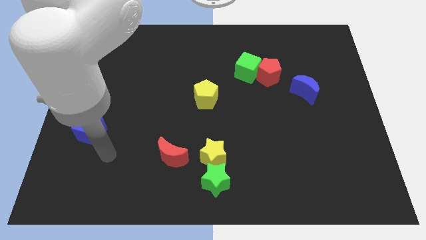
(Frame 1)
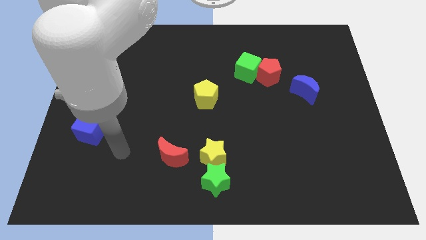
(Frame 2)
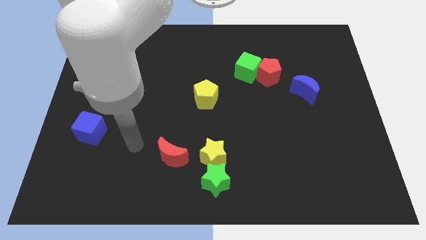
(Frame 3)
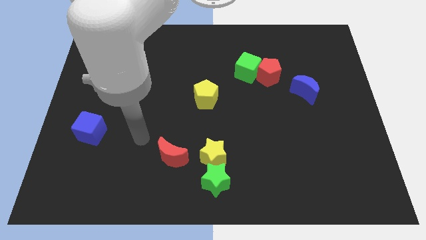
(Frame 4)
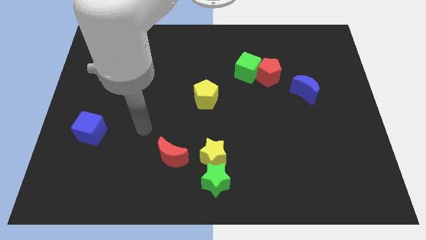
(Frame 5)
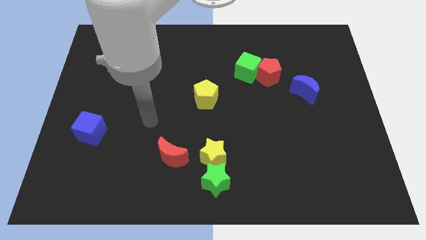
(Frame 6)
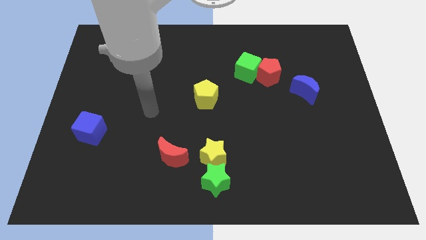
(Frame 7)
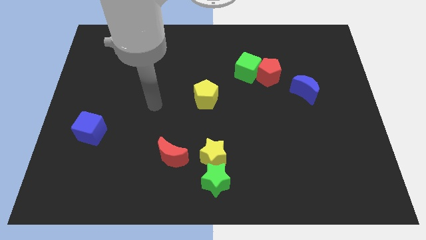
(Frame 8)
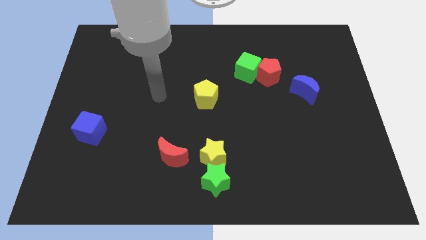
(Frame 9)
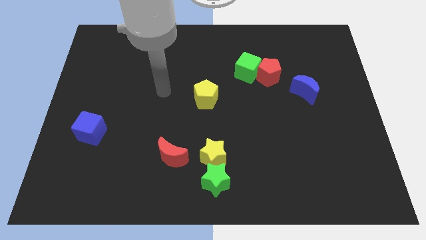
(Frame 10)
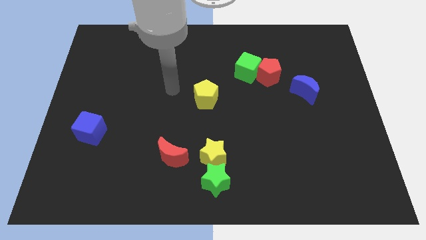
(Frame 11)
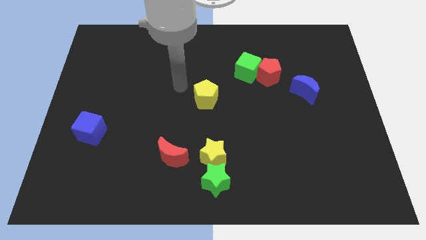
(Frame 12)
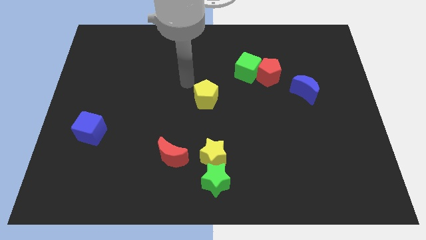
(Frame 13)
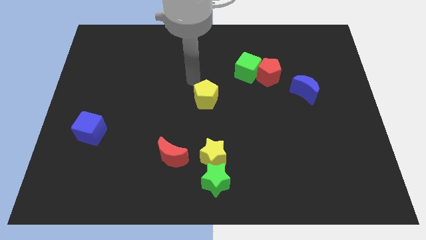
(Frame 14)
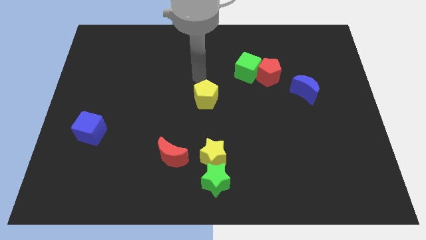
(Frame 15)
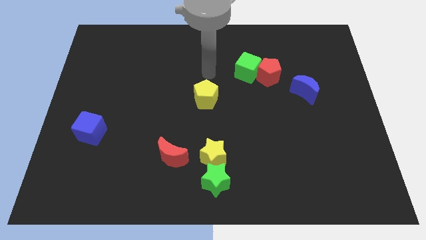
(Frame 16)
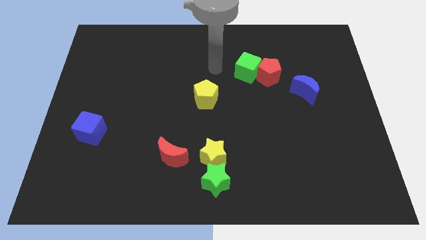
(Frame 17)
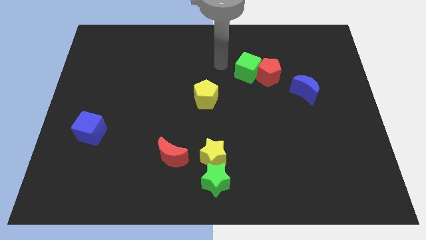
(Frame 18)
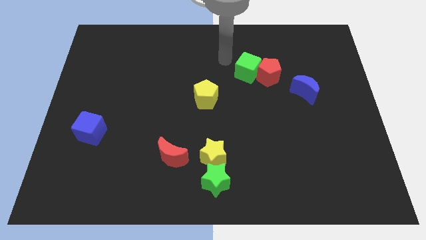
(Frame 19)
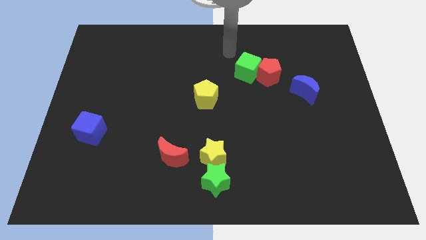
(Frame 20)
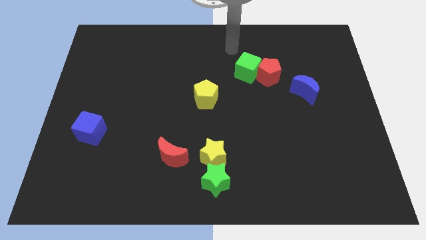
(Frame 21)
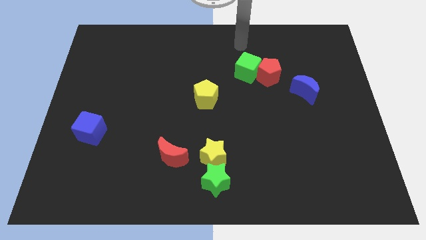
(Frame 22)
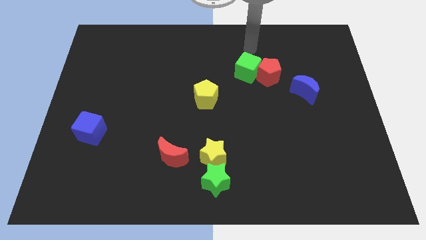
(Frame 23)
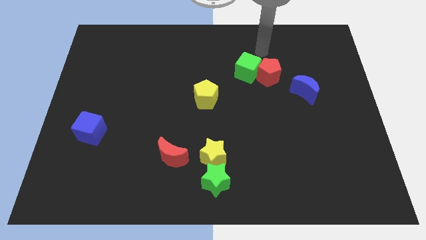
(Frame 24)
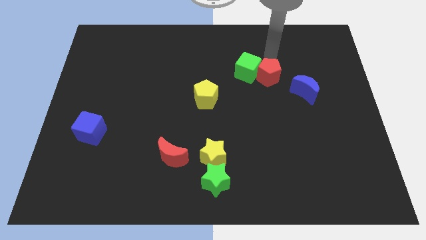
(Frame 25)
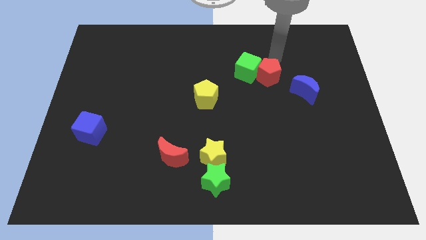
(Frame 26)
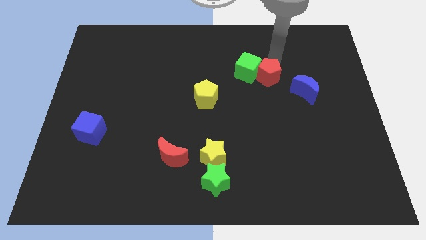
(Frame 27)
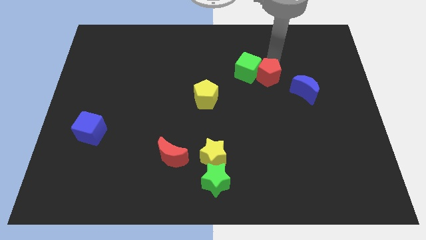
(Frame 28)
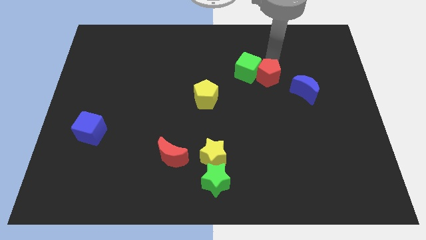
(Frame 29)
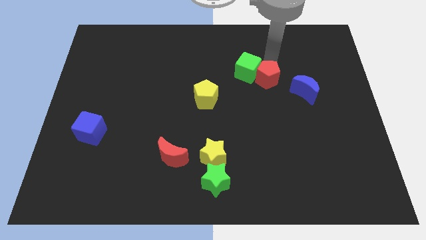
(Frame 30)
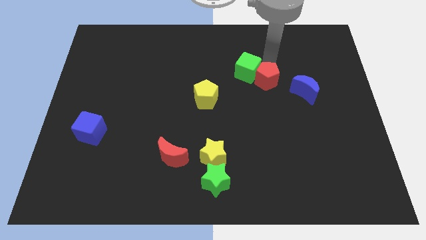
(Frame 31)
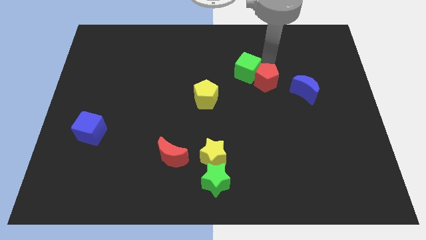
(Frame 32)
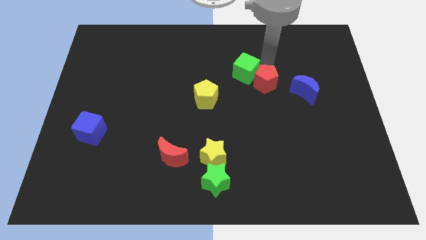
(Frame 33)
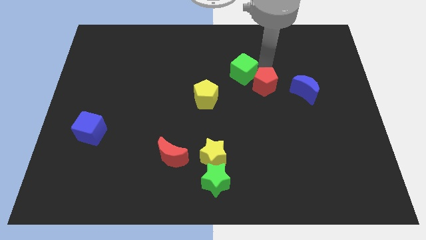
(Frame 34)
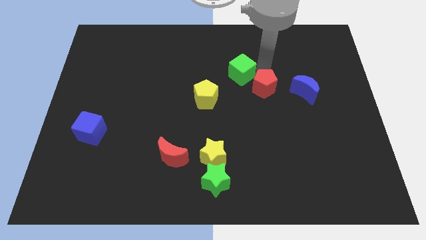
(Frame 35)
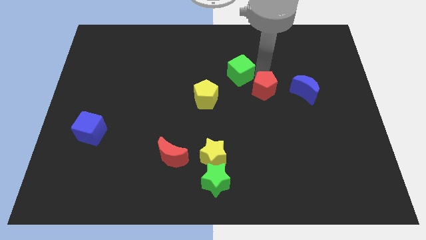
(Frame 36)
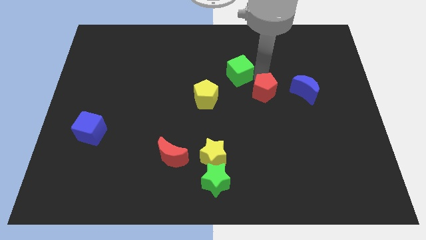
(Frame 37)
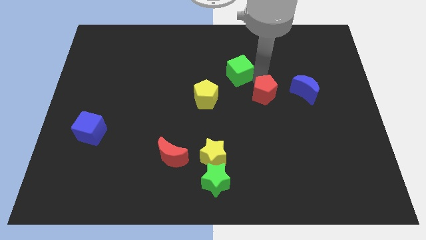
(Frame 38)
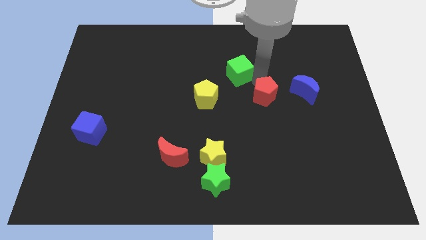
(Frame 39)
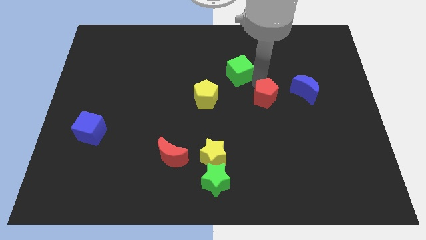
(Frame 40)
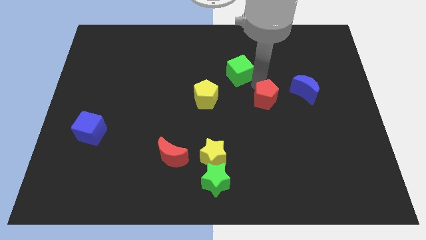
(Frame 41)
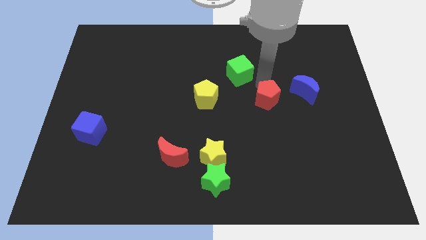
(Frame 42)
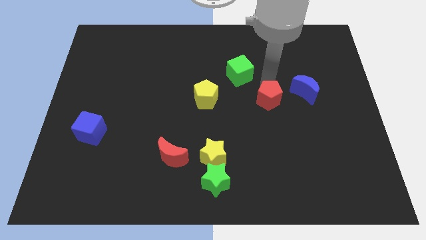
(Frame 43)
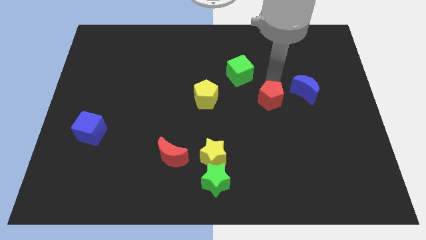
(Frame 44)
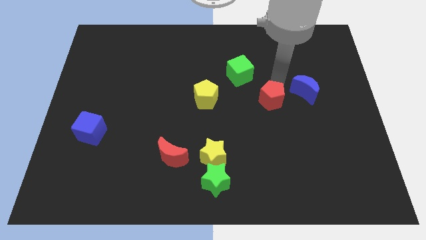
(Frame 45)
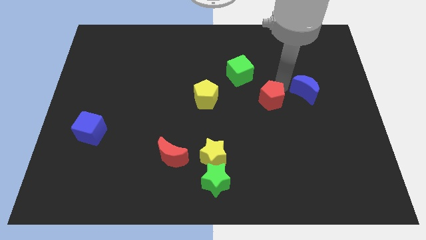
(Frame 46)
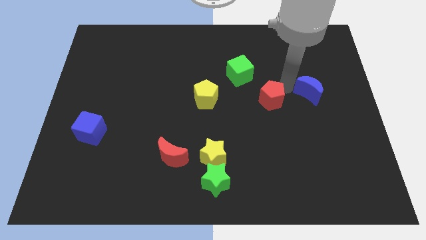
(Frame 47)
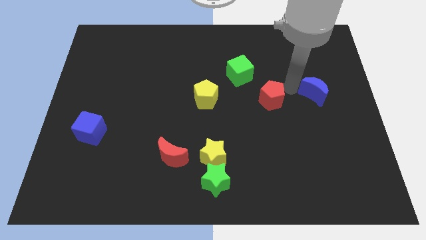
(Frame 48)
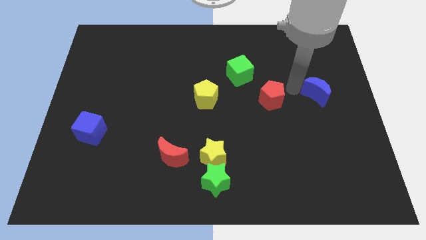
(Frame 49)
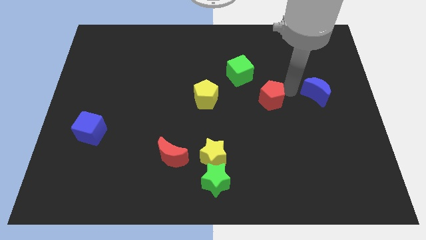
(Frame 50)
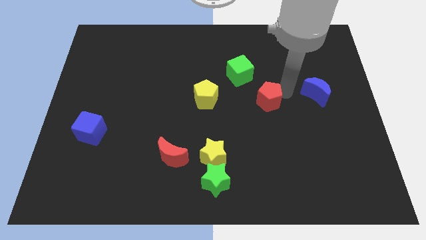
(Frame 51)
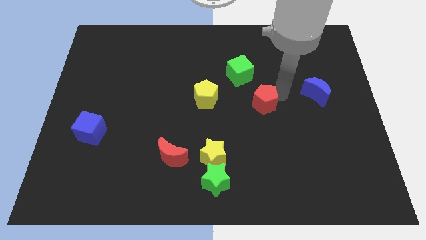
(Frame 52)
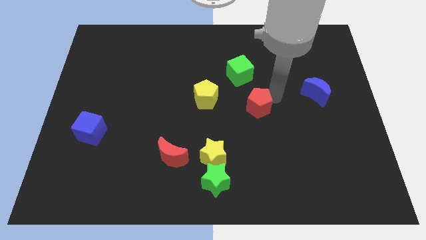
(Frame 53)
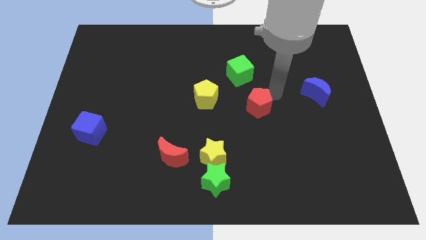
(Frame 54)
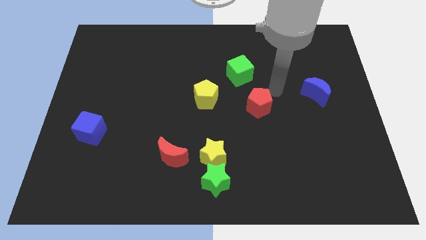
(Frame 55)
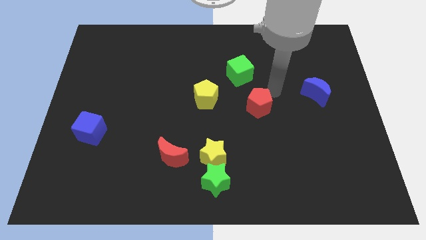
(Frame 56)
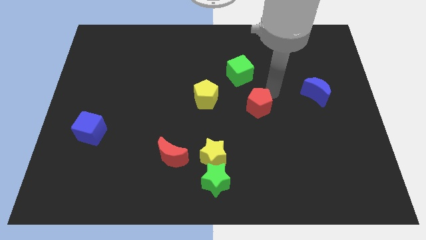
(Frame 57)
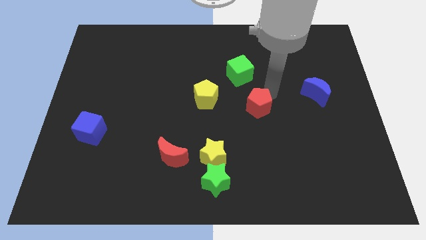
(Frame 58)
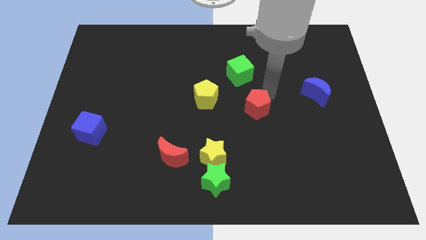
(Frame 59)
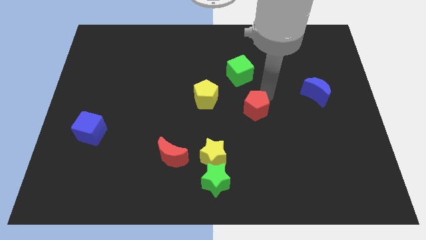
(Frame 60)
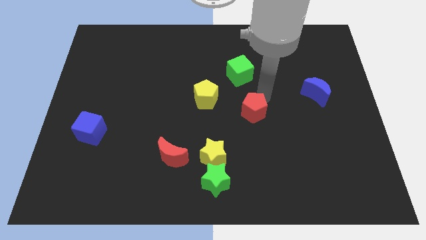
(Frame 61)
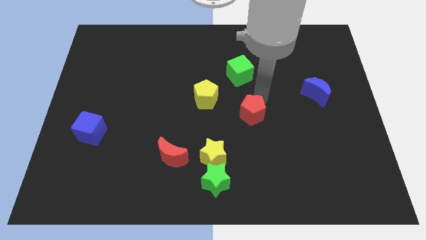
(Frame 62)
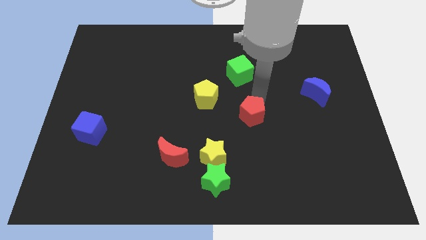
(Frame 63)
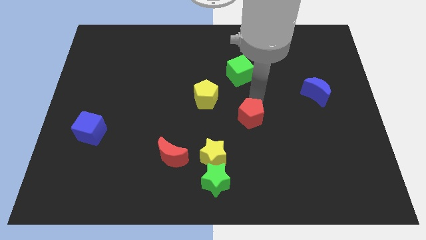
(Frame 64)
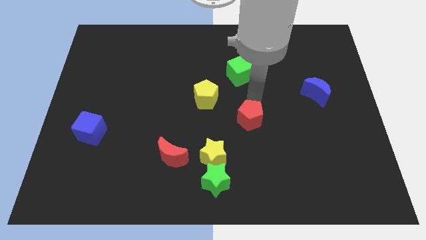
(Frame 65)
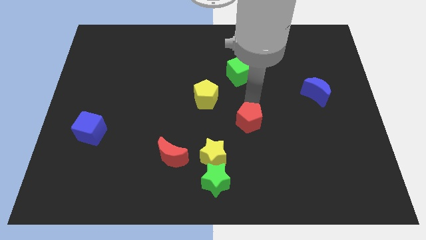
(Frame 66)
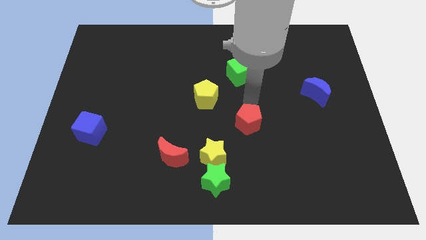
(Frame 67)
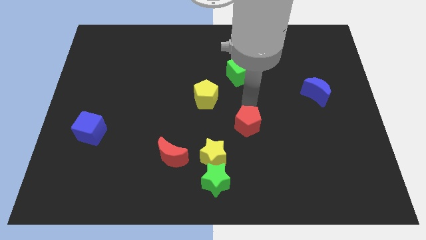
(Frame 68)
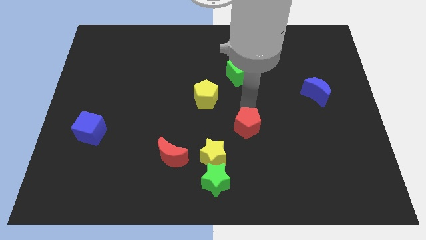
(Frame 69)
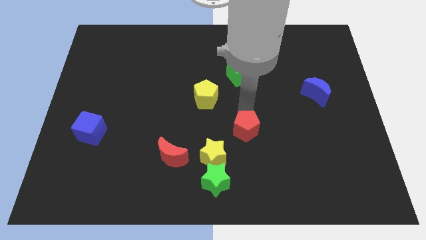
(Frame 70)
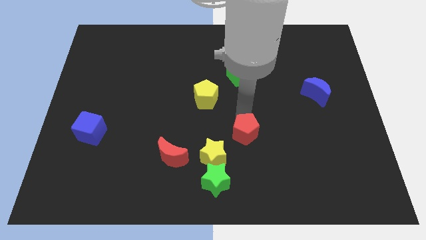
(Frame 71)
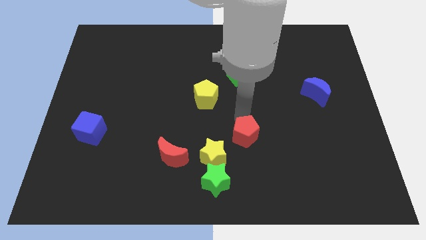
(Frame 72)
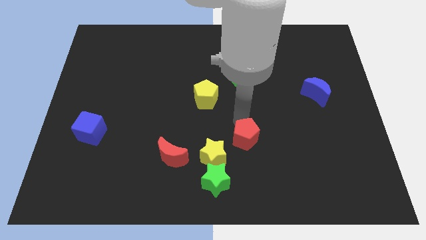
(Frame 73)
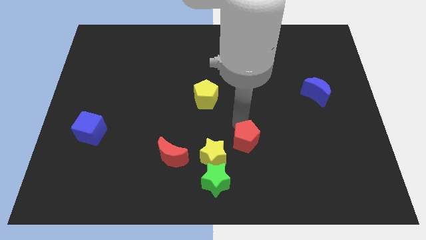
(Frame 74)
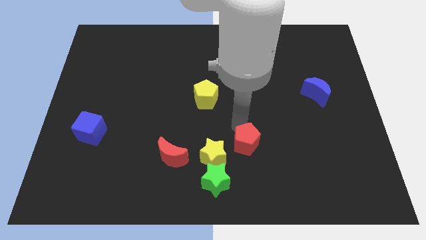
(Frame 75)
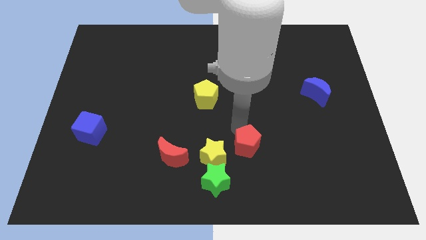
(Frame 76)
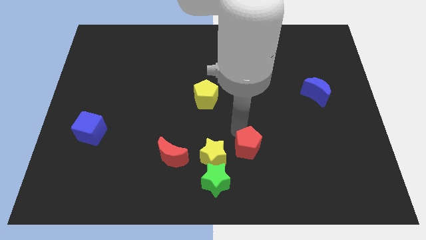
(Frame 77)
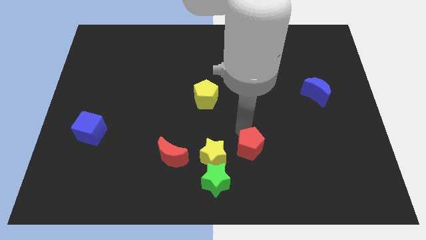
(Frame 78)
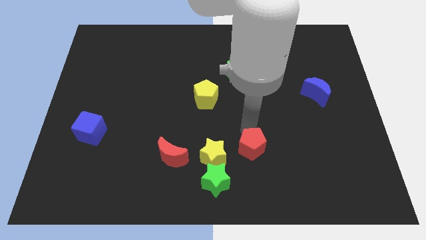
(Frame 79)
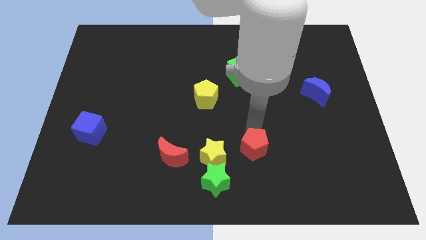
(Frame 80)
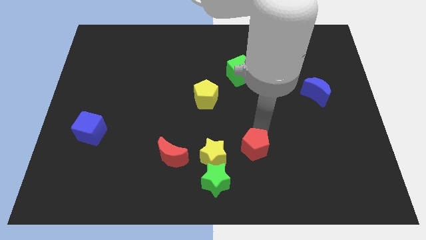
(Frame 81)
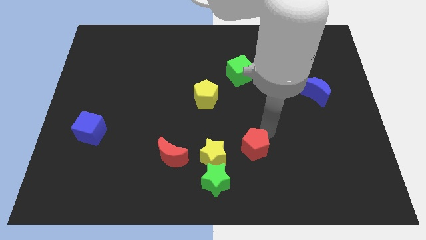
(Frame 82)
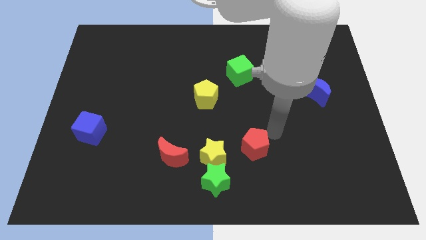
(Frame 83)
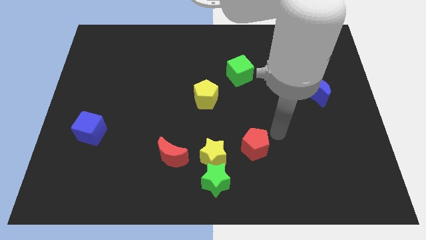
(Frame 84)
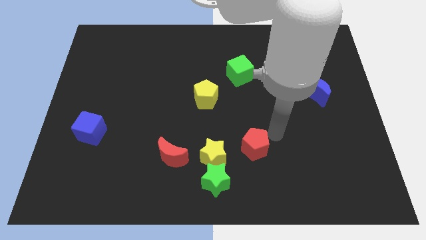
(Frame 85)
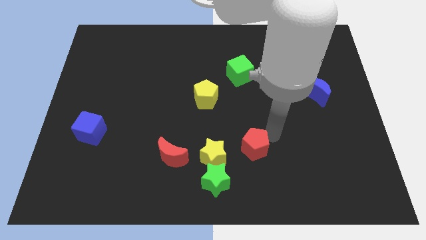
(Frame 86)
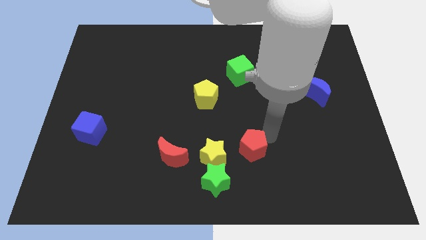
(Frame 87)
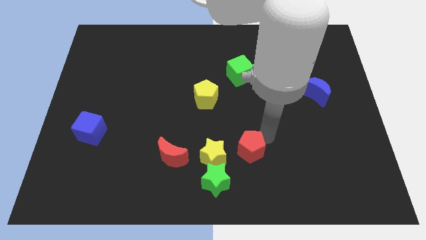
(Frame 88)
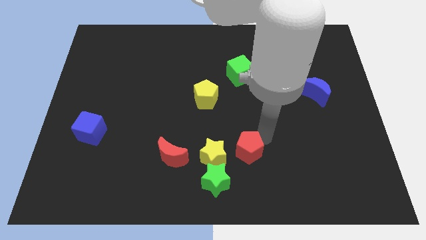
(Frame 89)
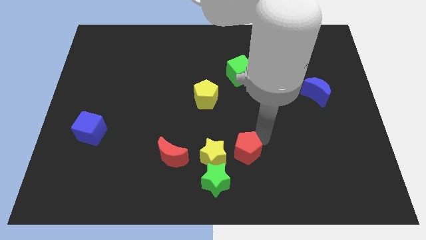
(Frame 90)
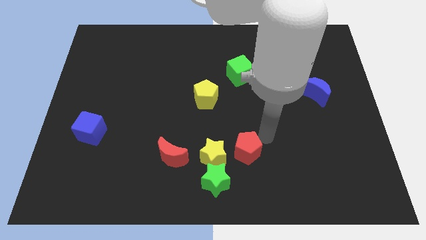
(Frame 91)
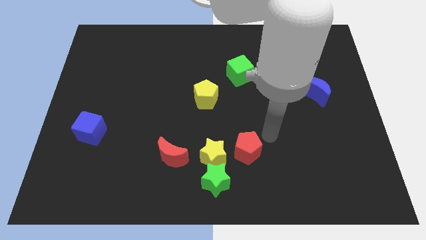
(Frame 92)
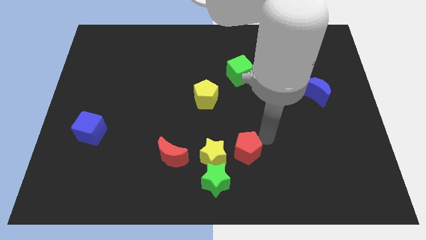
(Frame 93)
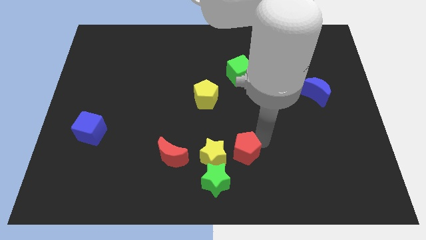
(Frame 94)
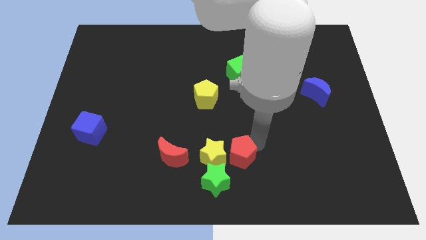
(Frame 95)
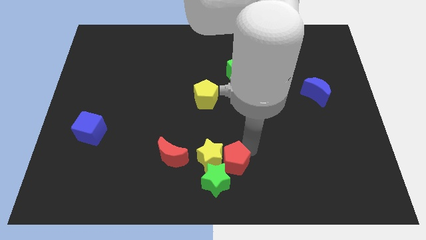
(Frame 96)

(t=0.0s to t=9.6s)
move the red pentagon to the green star
